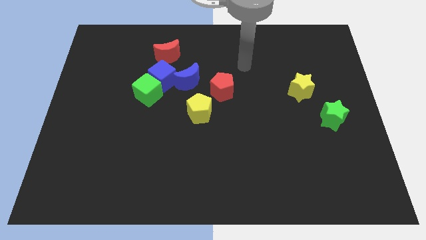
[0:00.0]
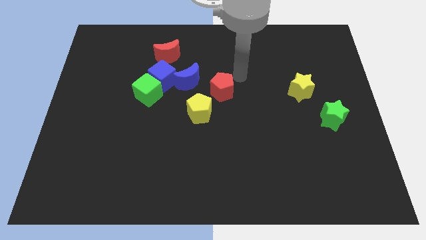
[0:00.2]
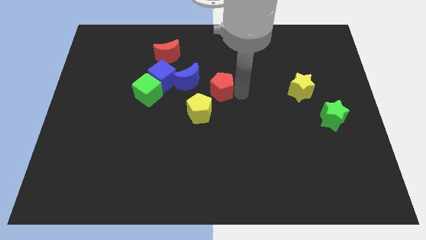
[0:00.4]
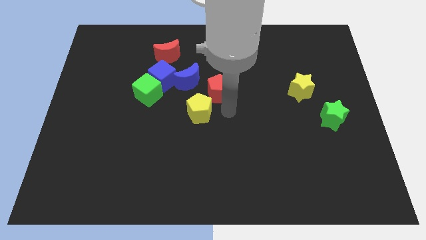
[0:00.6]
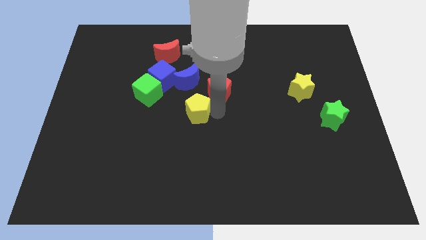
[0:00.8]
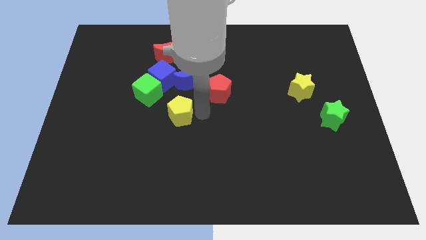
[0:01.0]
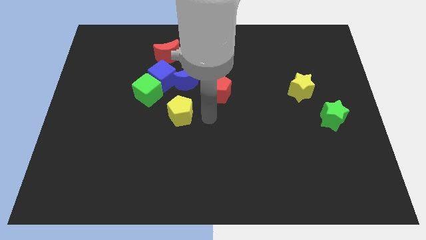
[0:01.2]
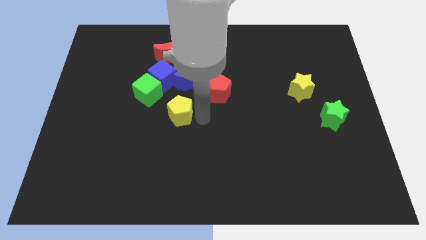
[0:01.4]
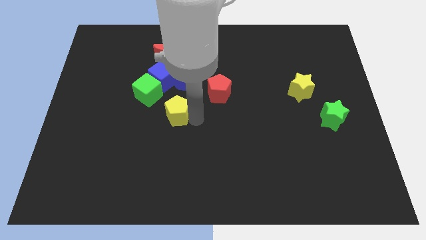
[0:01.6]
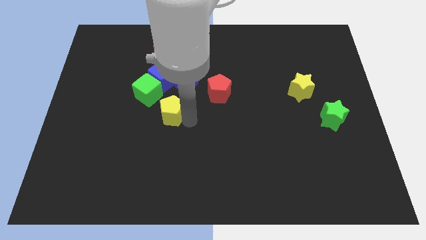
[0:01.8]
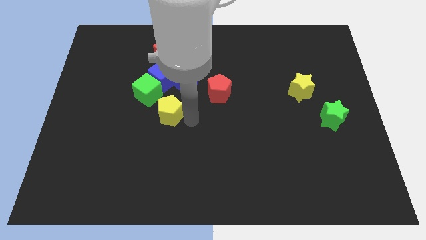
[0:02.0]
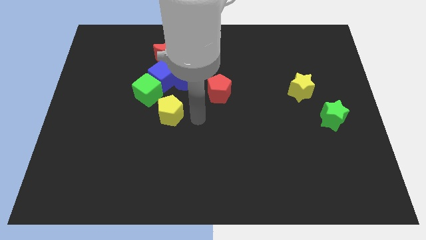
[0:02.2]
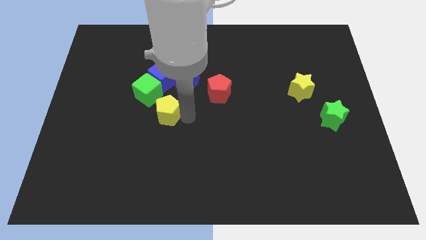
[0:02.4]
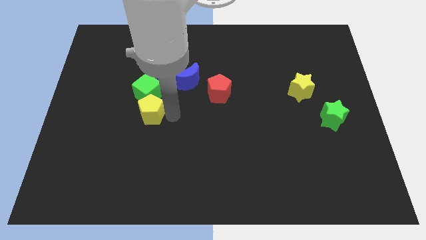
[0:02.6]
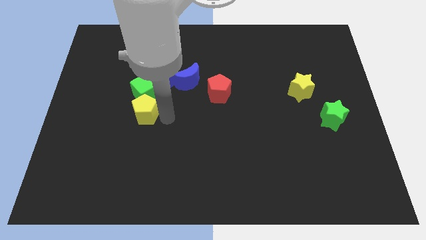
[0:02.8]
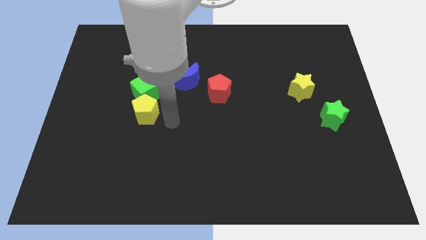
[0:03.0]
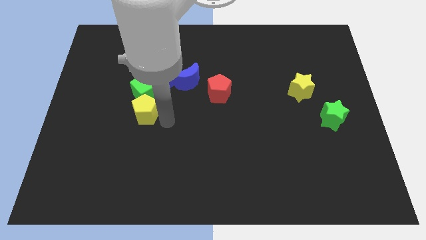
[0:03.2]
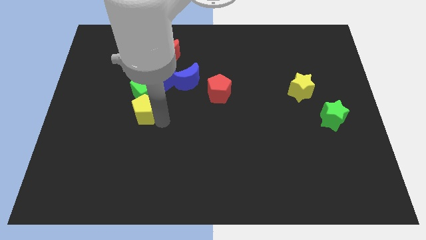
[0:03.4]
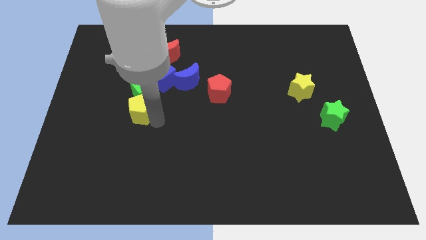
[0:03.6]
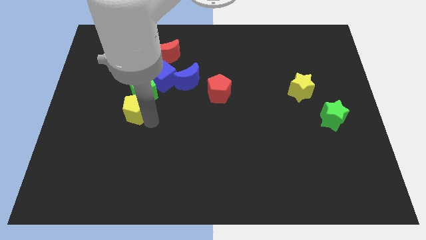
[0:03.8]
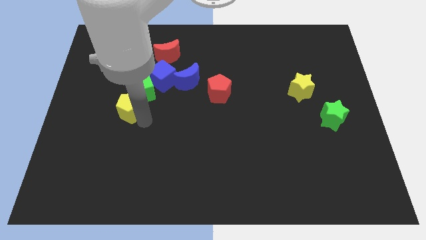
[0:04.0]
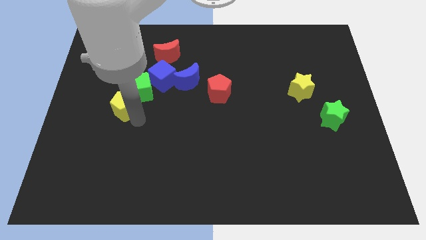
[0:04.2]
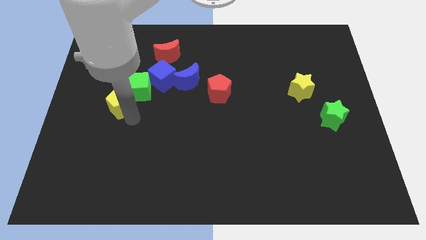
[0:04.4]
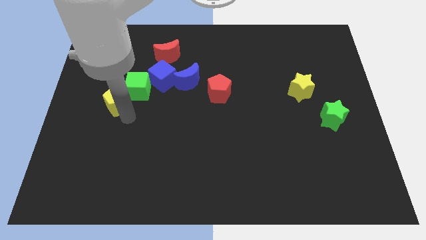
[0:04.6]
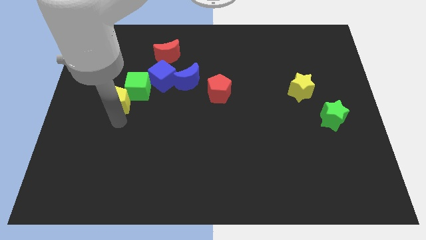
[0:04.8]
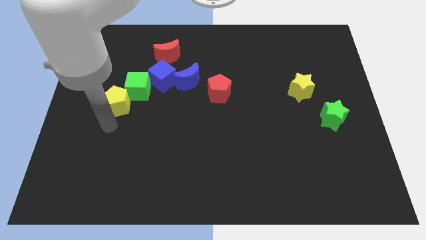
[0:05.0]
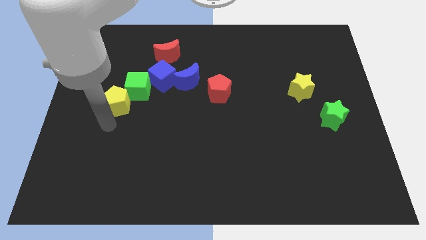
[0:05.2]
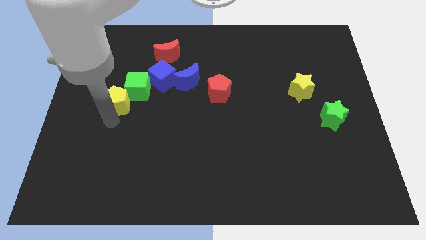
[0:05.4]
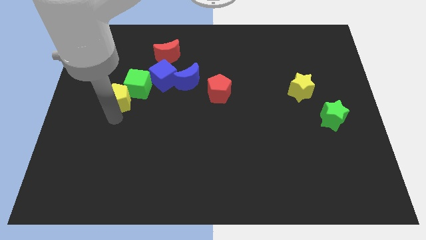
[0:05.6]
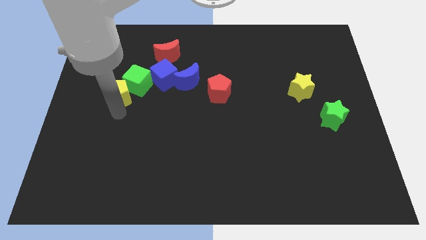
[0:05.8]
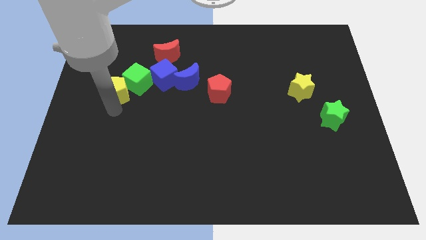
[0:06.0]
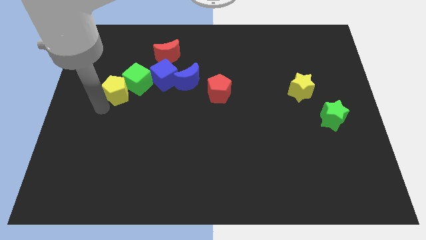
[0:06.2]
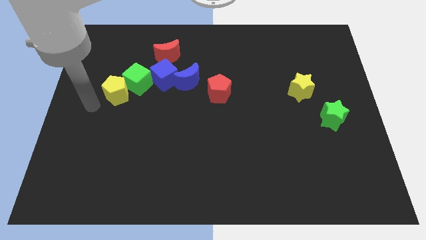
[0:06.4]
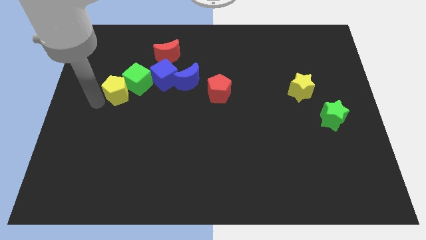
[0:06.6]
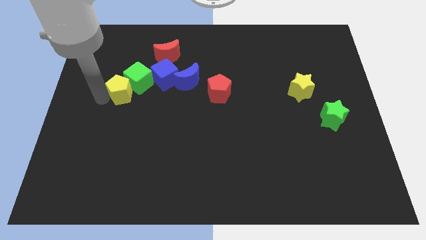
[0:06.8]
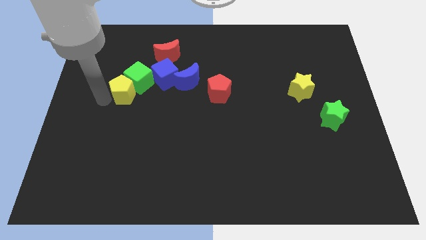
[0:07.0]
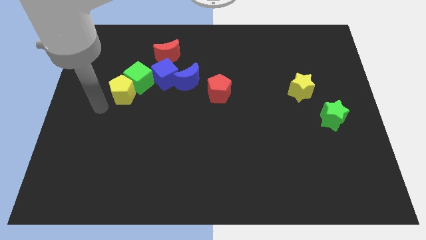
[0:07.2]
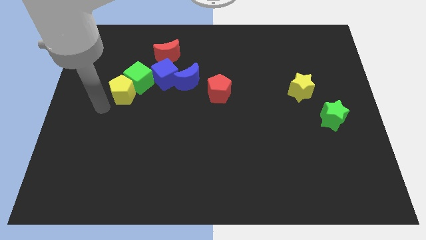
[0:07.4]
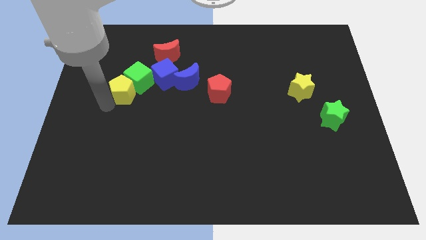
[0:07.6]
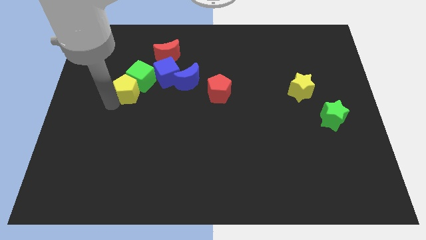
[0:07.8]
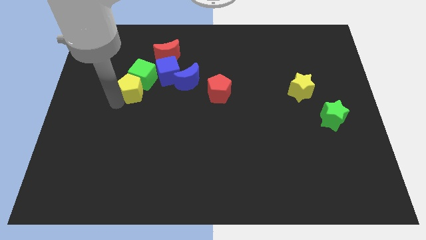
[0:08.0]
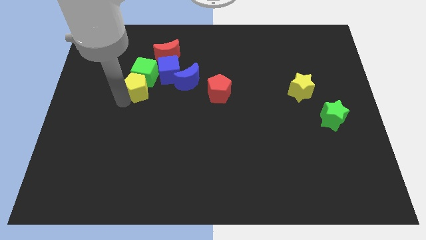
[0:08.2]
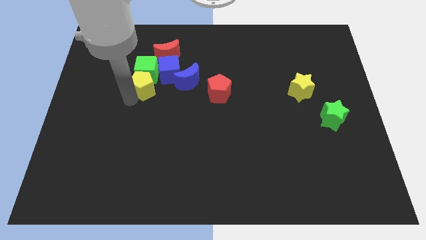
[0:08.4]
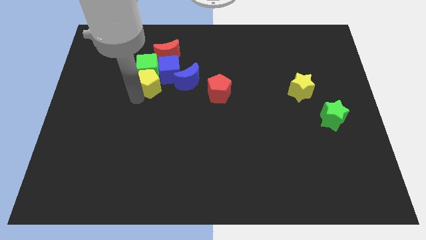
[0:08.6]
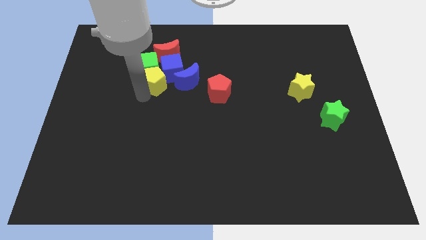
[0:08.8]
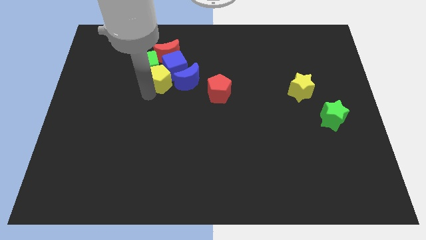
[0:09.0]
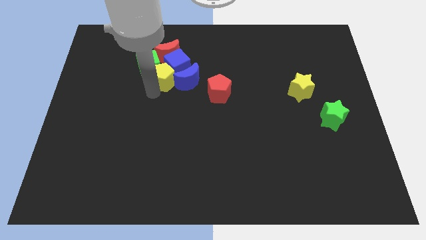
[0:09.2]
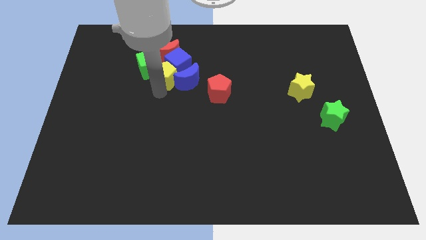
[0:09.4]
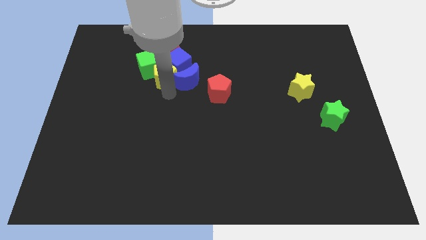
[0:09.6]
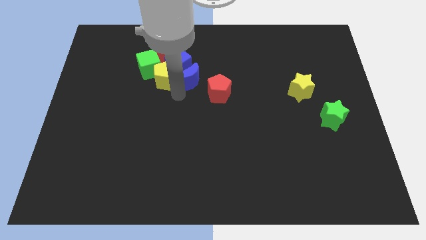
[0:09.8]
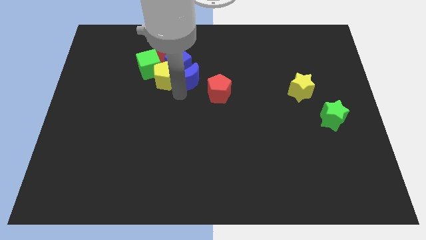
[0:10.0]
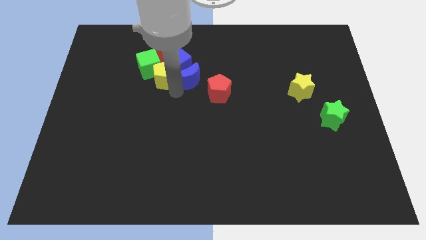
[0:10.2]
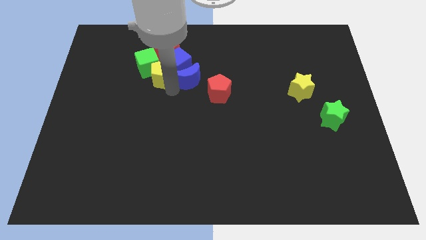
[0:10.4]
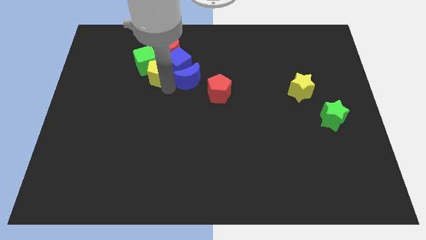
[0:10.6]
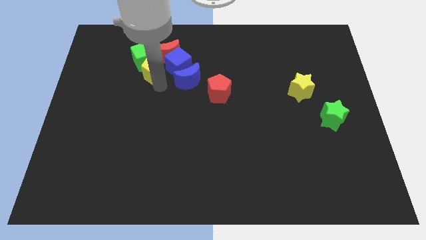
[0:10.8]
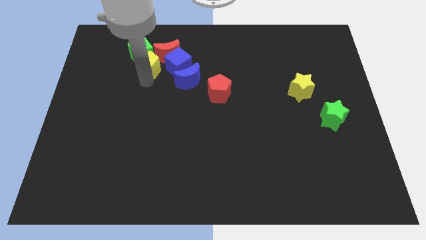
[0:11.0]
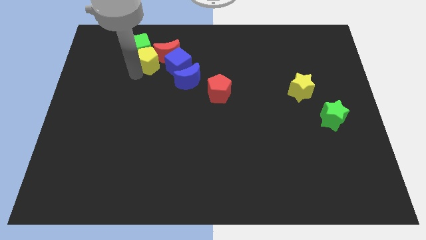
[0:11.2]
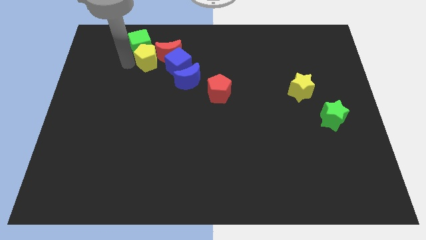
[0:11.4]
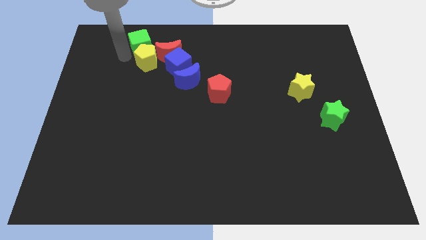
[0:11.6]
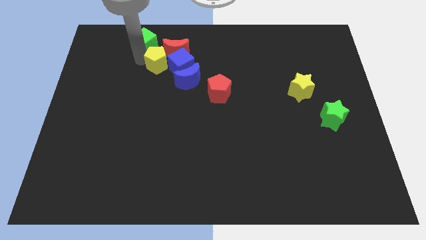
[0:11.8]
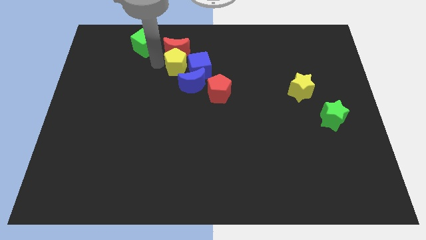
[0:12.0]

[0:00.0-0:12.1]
put the yellow pentagon to the bottom right of the red moon

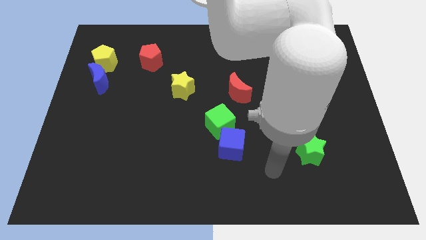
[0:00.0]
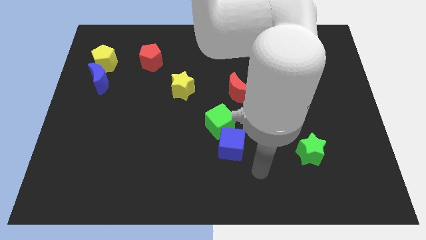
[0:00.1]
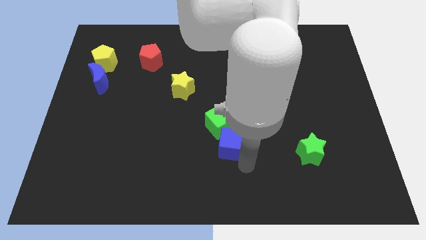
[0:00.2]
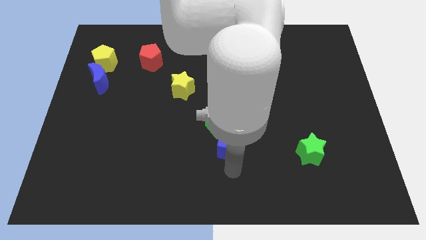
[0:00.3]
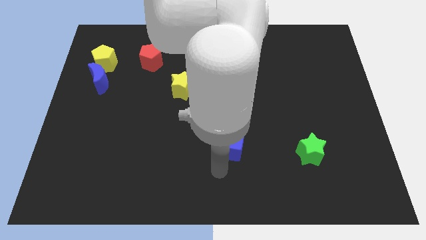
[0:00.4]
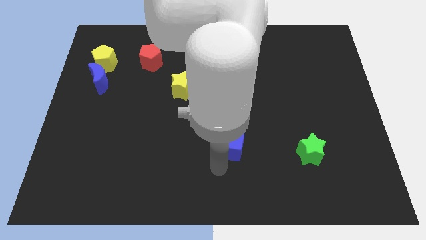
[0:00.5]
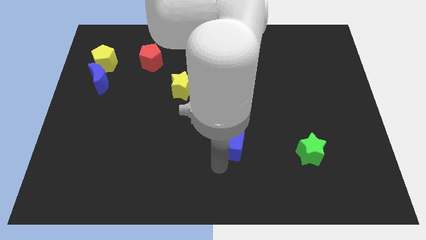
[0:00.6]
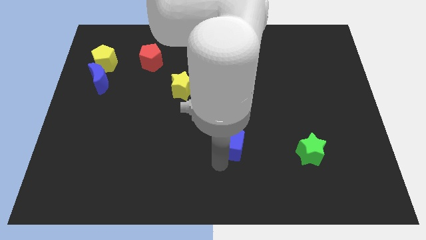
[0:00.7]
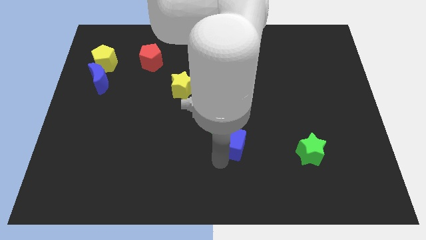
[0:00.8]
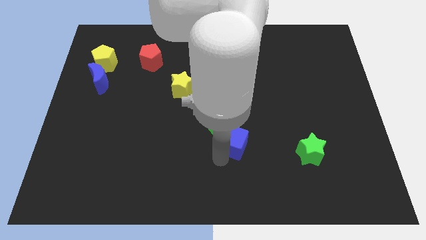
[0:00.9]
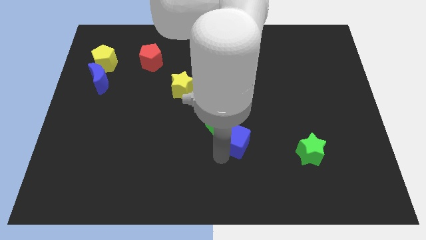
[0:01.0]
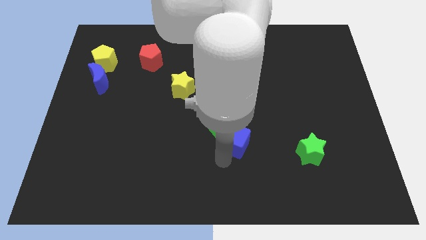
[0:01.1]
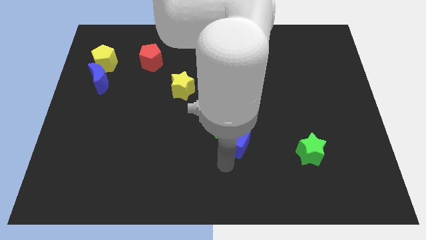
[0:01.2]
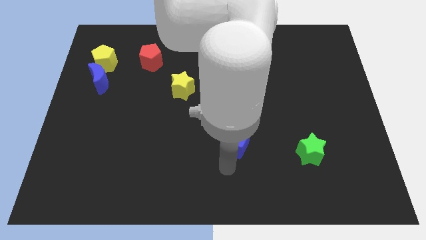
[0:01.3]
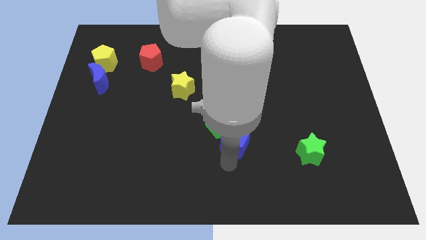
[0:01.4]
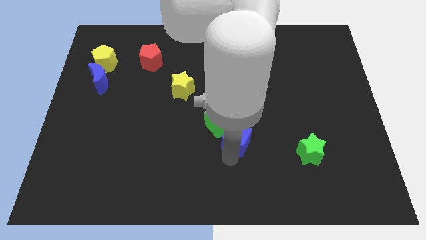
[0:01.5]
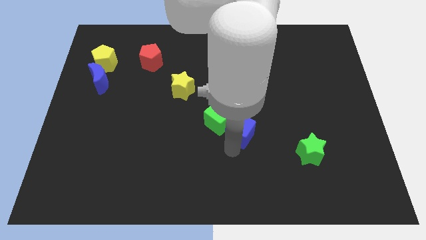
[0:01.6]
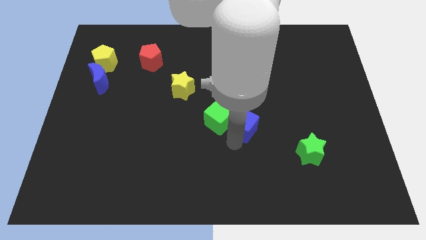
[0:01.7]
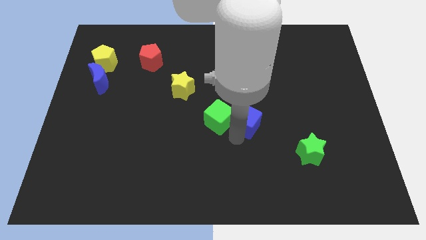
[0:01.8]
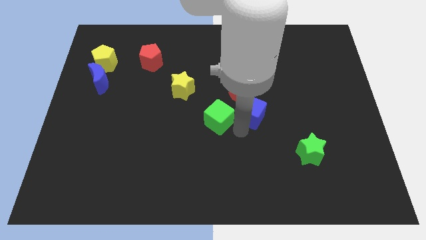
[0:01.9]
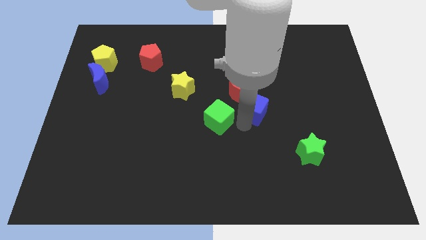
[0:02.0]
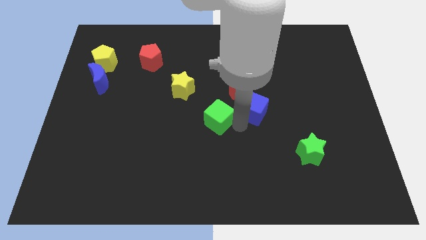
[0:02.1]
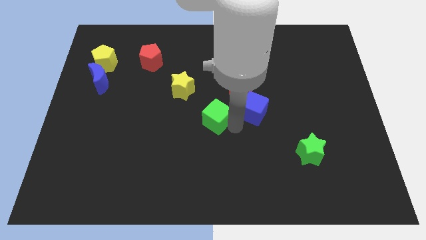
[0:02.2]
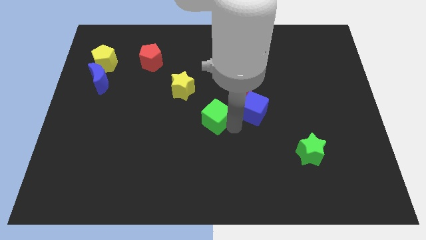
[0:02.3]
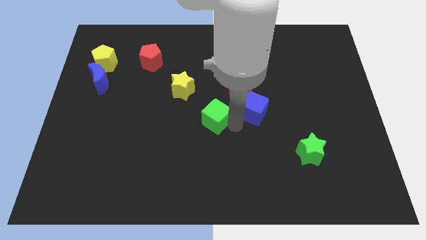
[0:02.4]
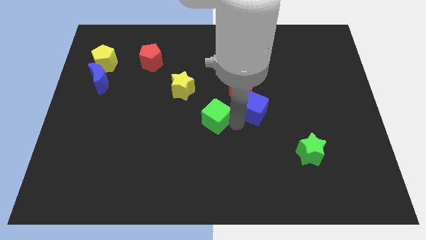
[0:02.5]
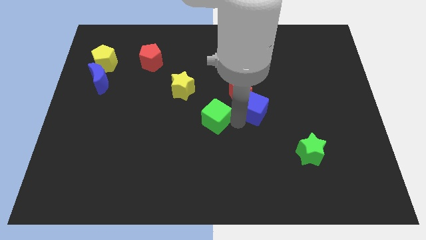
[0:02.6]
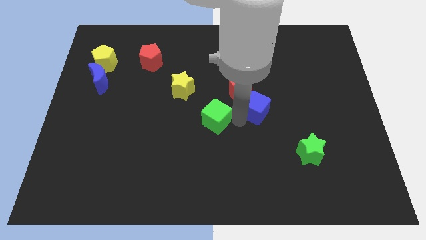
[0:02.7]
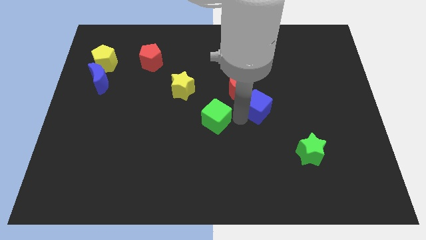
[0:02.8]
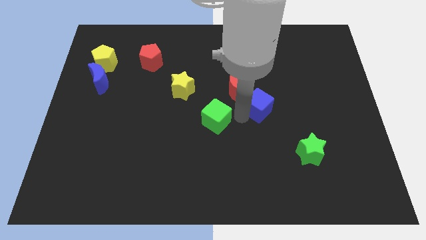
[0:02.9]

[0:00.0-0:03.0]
slide the blue cube just right of the red moon
